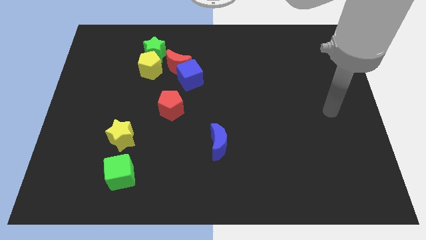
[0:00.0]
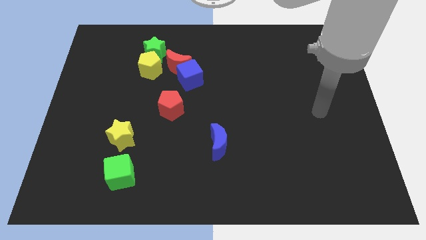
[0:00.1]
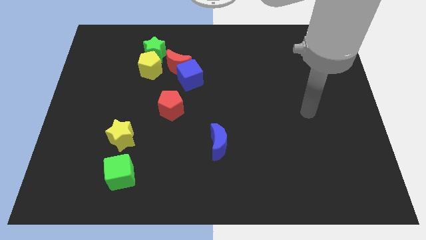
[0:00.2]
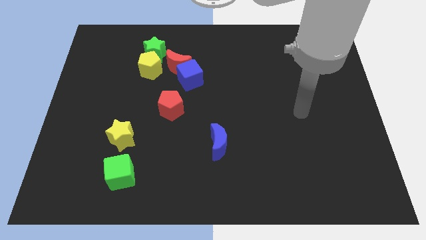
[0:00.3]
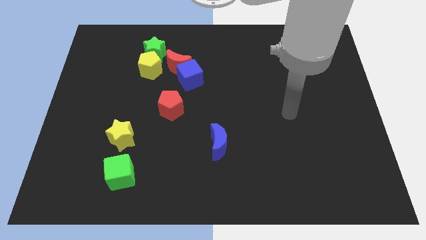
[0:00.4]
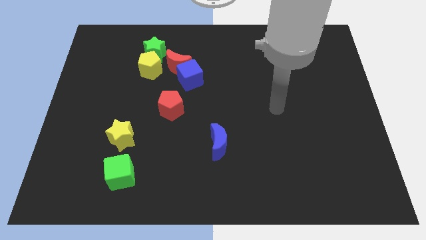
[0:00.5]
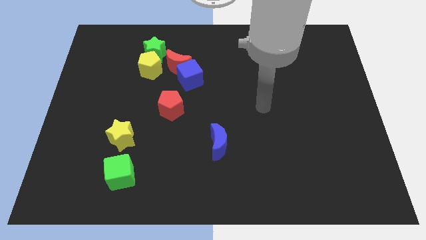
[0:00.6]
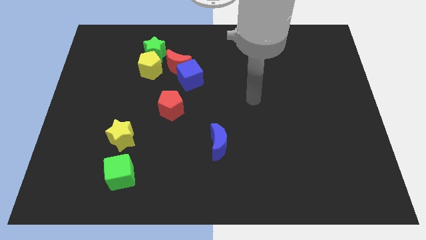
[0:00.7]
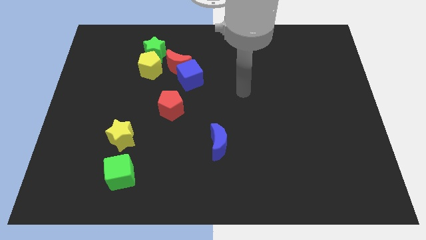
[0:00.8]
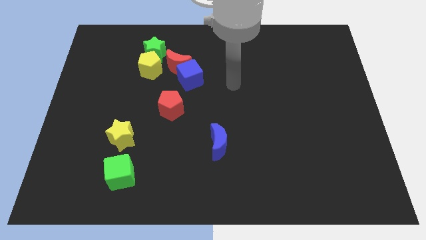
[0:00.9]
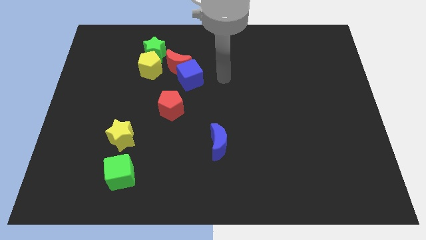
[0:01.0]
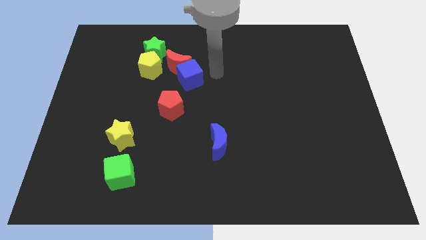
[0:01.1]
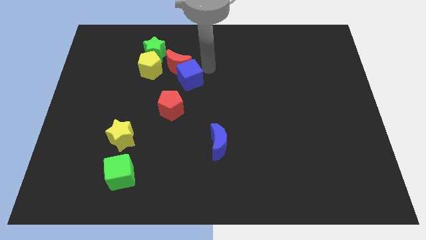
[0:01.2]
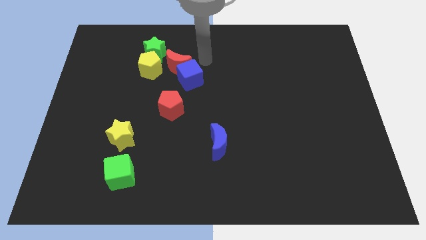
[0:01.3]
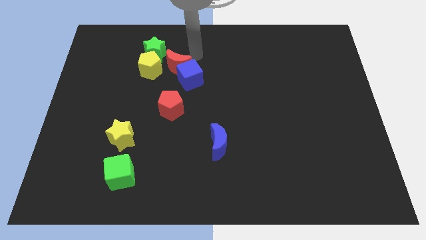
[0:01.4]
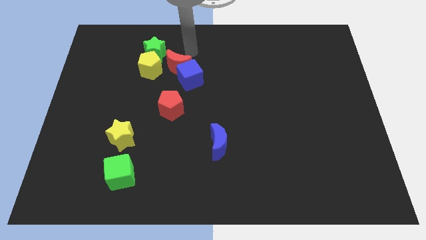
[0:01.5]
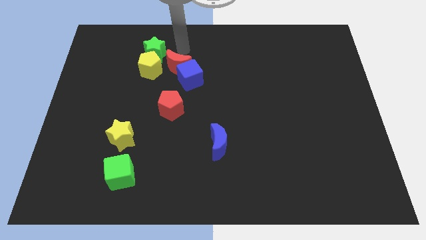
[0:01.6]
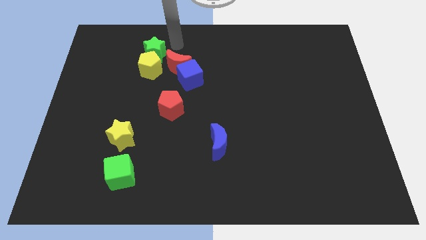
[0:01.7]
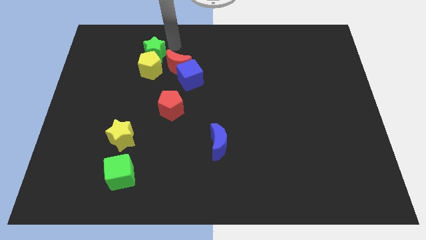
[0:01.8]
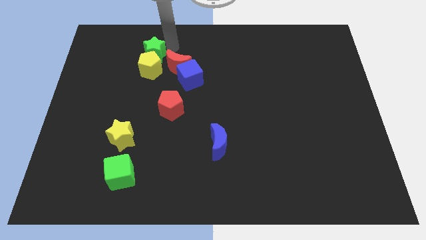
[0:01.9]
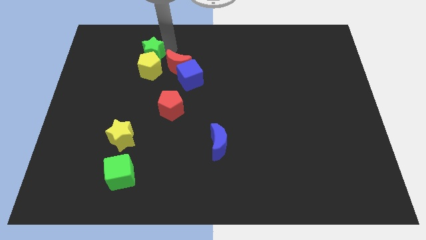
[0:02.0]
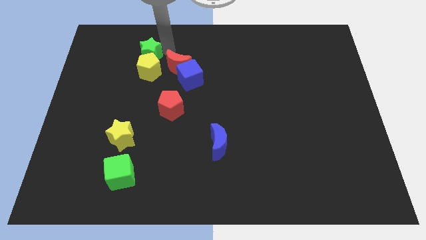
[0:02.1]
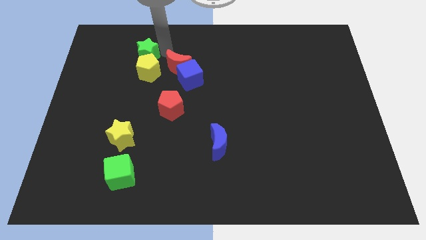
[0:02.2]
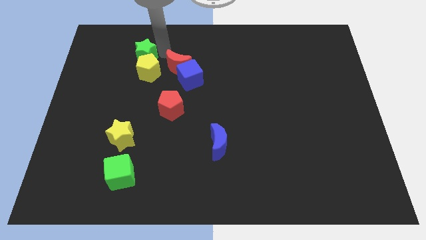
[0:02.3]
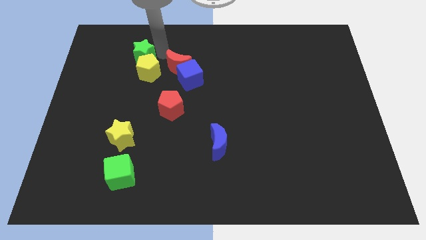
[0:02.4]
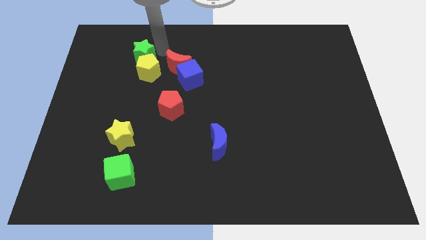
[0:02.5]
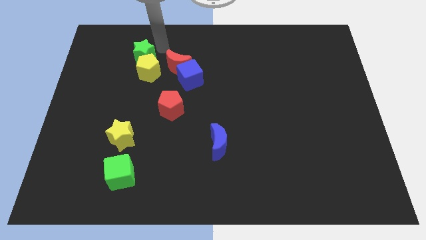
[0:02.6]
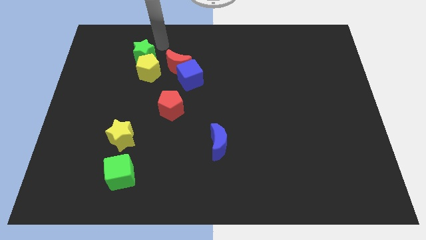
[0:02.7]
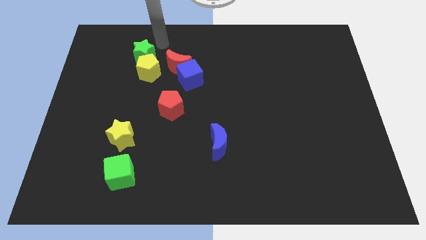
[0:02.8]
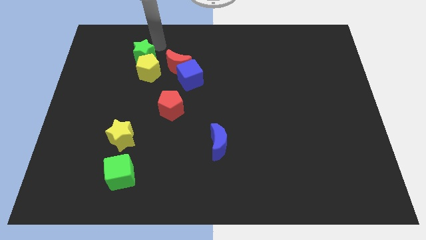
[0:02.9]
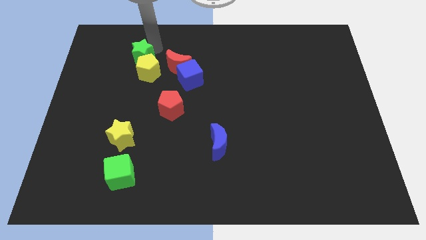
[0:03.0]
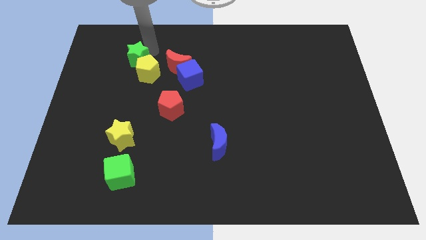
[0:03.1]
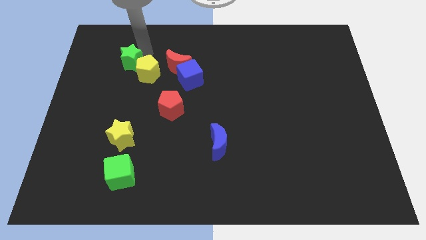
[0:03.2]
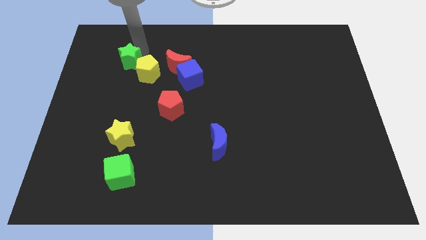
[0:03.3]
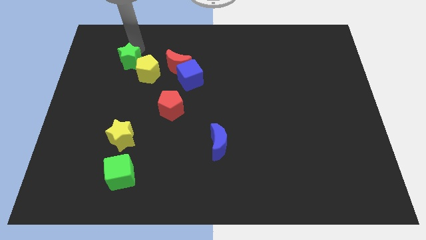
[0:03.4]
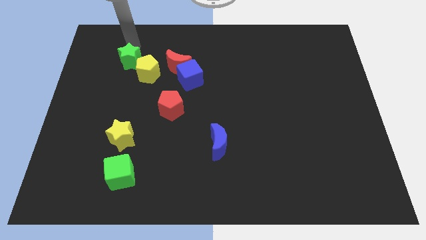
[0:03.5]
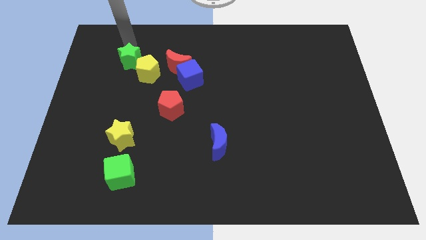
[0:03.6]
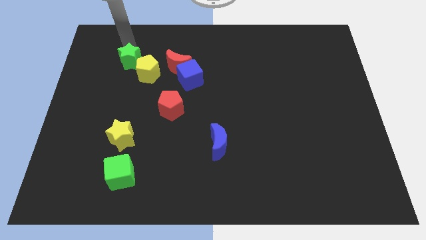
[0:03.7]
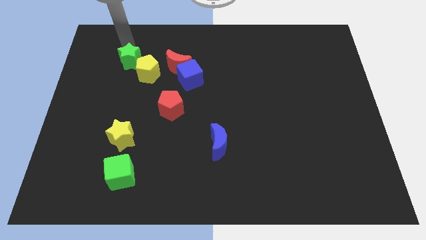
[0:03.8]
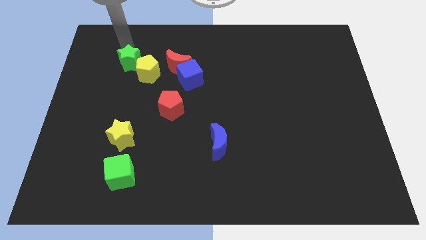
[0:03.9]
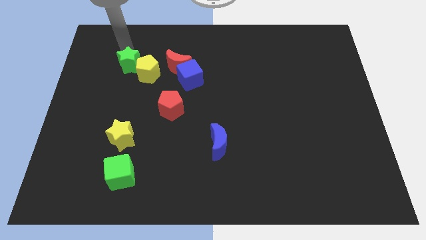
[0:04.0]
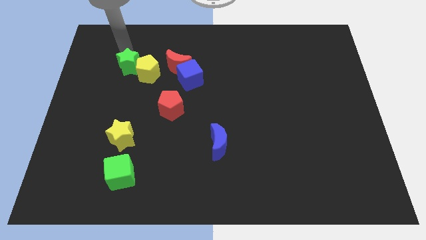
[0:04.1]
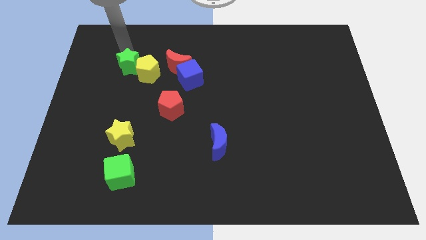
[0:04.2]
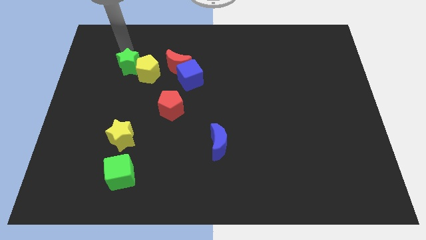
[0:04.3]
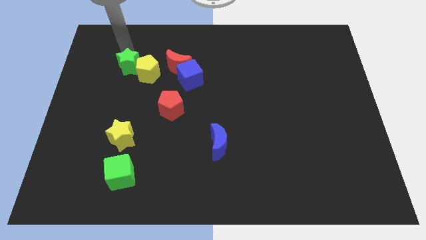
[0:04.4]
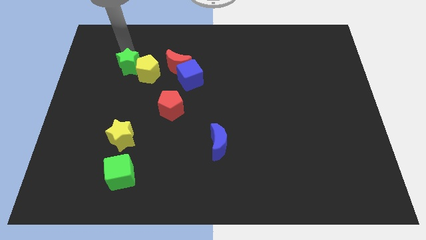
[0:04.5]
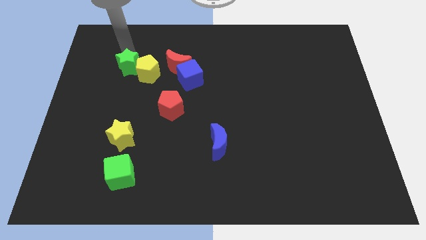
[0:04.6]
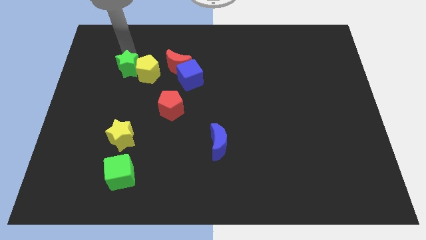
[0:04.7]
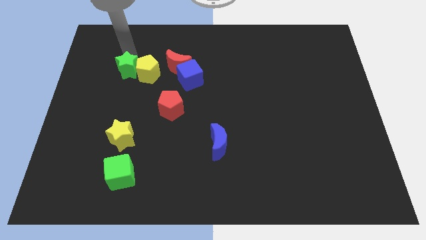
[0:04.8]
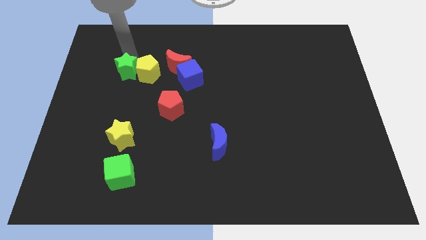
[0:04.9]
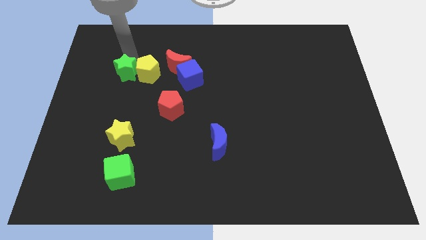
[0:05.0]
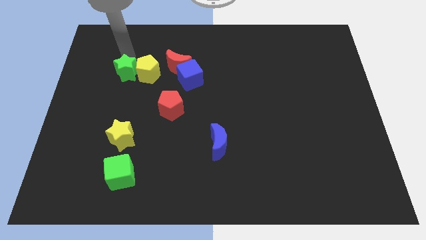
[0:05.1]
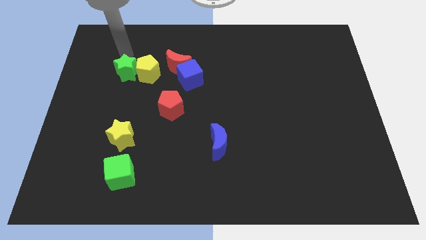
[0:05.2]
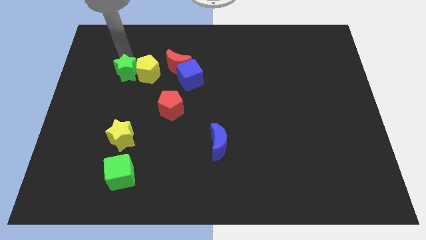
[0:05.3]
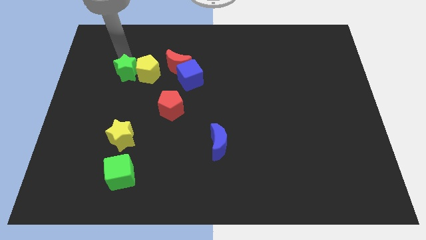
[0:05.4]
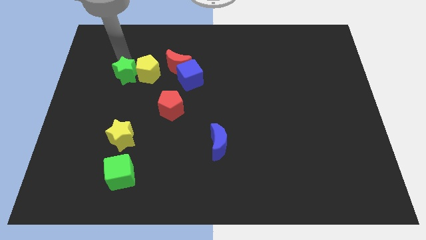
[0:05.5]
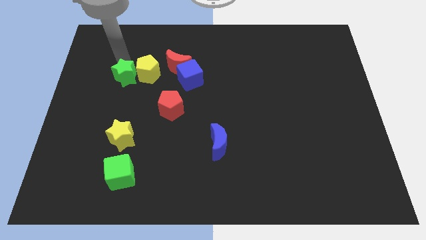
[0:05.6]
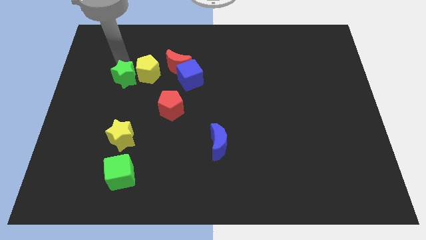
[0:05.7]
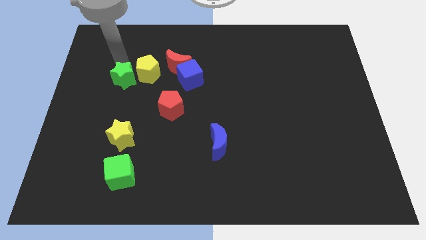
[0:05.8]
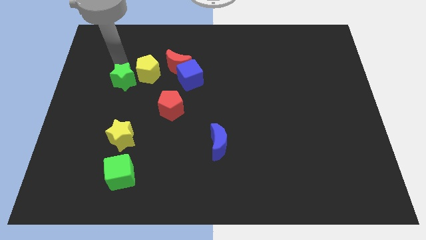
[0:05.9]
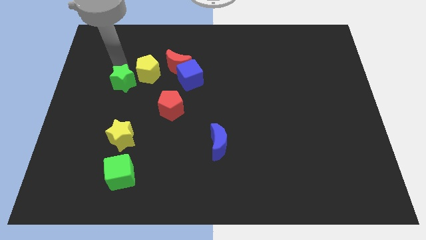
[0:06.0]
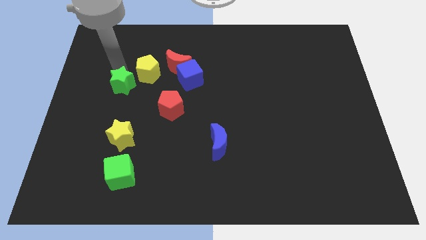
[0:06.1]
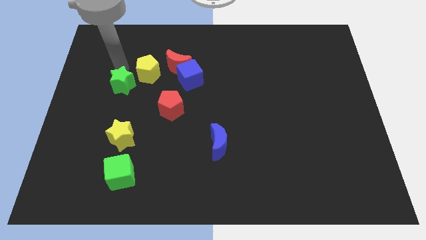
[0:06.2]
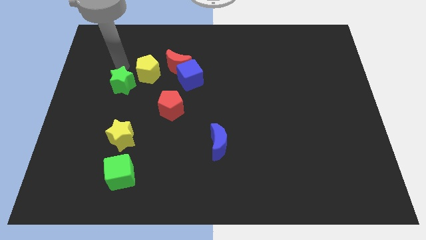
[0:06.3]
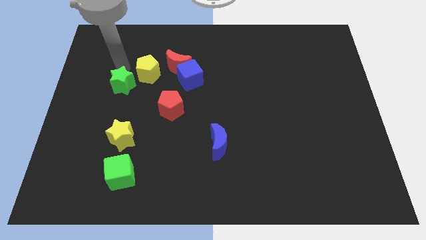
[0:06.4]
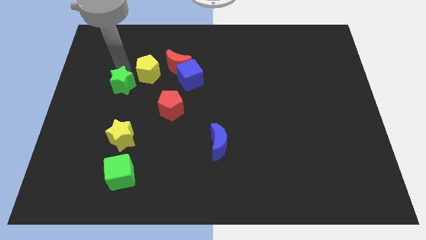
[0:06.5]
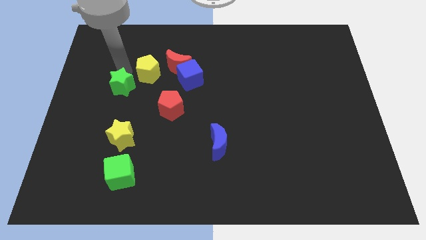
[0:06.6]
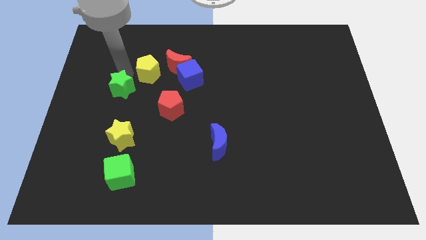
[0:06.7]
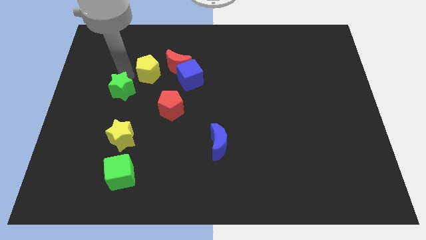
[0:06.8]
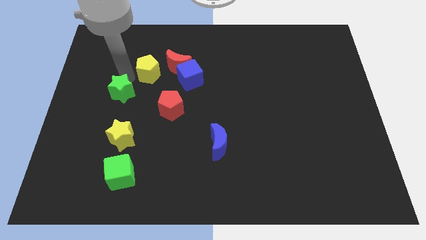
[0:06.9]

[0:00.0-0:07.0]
push the green star just left of the red pentagon
